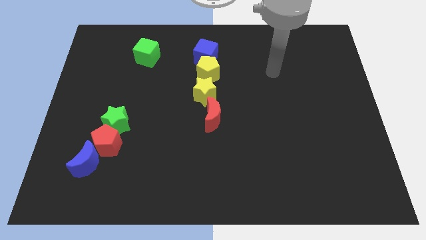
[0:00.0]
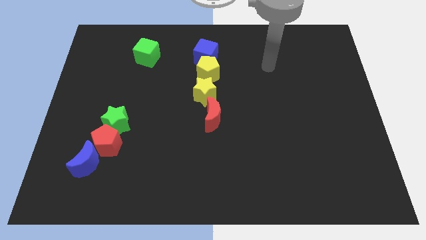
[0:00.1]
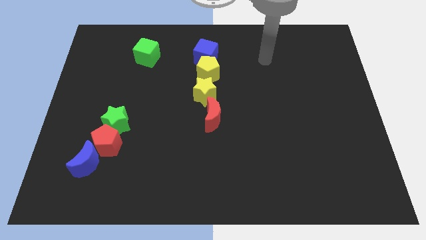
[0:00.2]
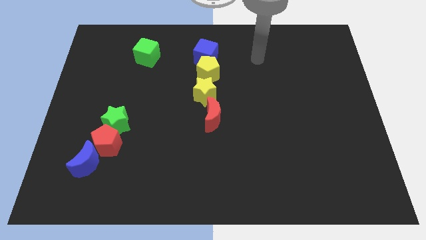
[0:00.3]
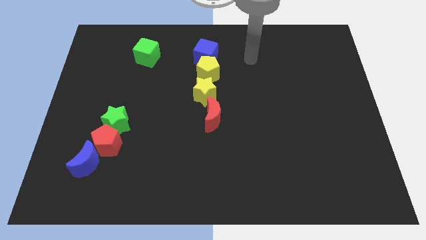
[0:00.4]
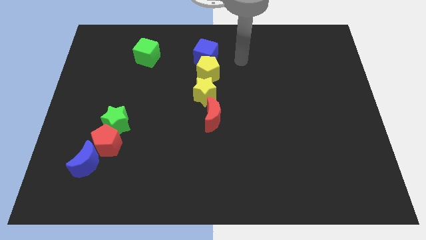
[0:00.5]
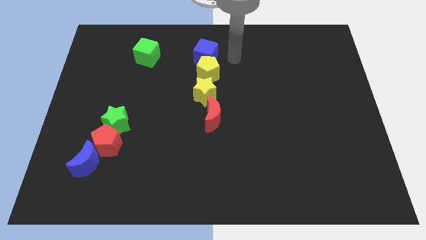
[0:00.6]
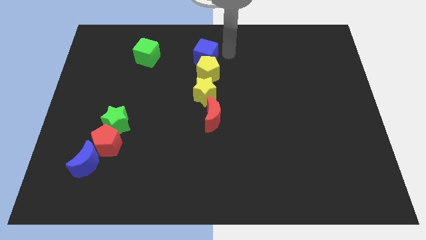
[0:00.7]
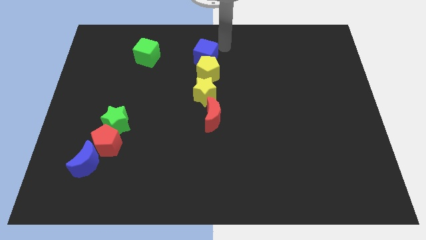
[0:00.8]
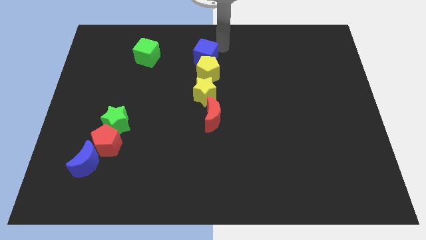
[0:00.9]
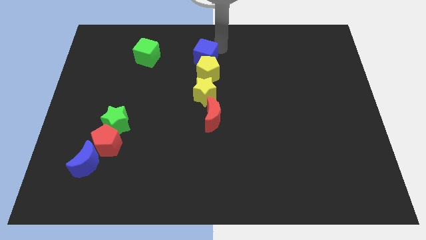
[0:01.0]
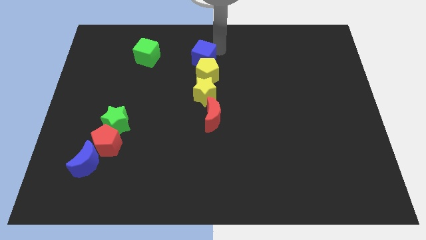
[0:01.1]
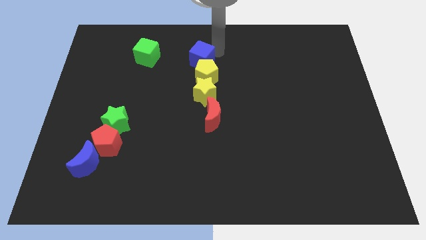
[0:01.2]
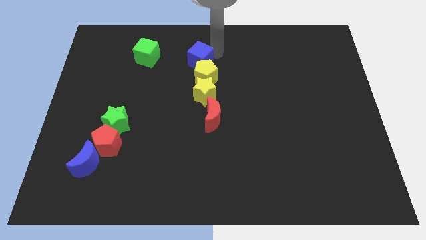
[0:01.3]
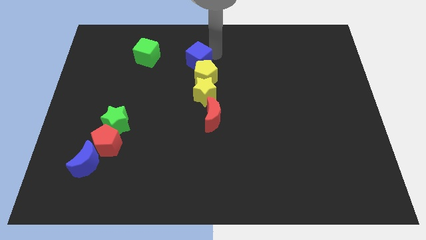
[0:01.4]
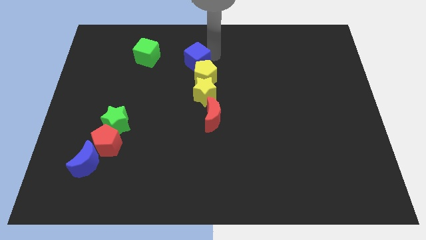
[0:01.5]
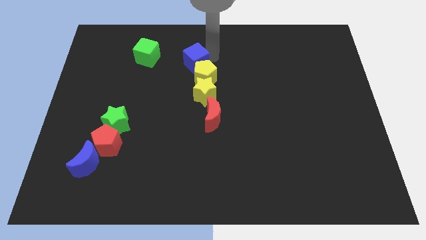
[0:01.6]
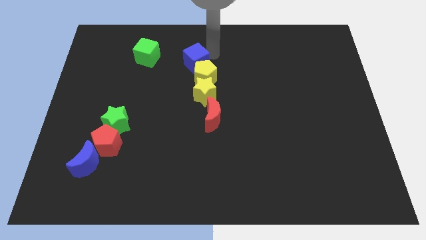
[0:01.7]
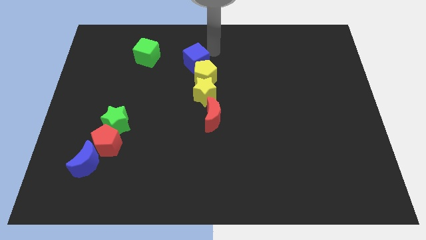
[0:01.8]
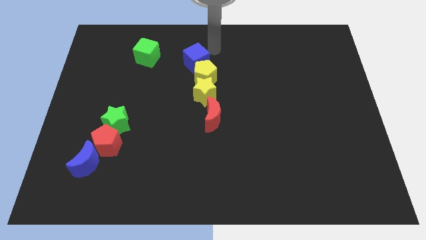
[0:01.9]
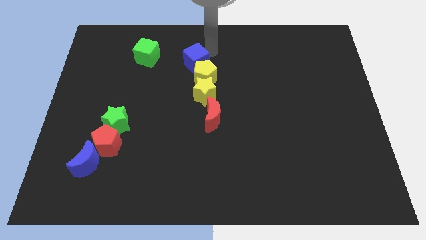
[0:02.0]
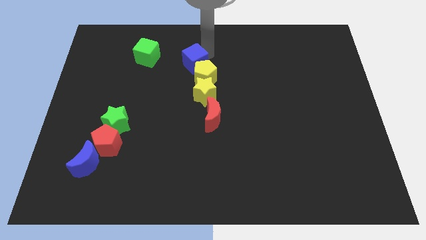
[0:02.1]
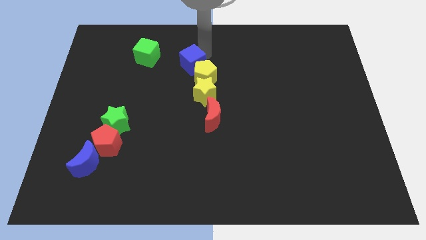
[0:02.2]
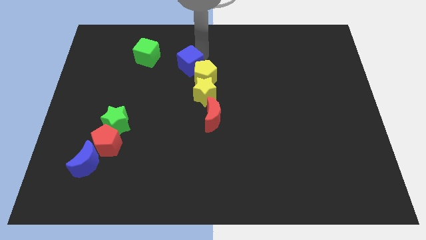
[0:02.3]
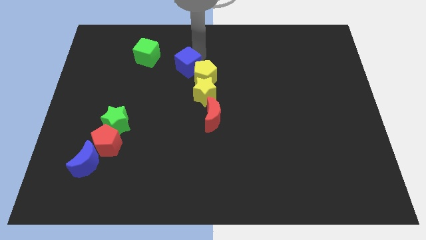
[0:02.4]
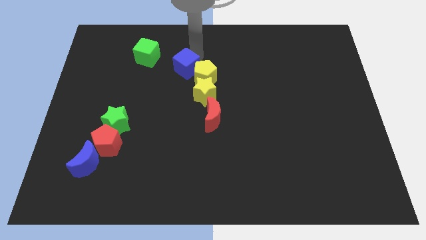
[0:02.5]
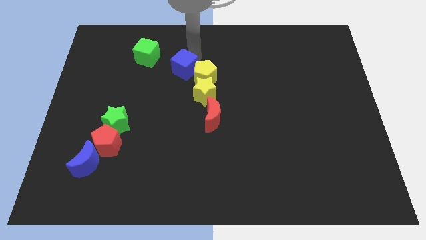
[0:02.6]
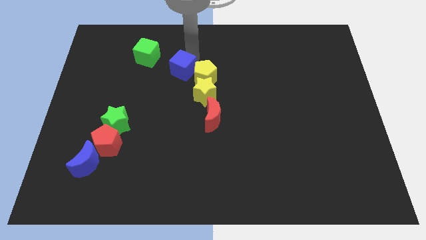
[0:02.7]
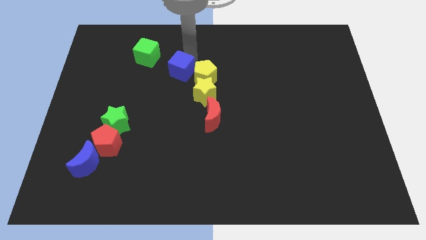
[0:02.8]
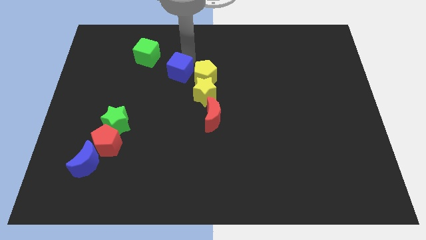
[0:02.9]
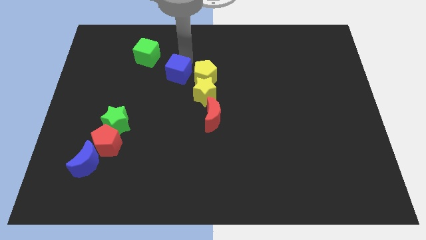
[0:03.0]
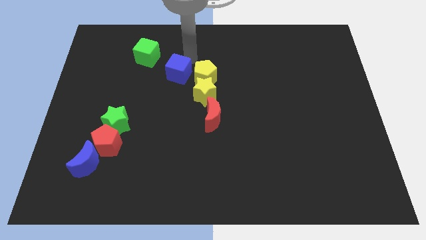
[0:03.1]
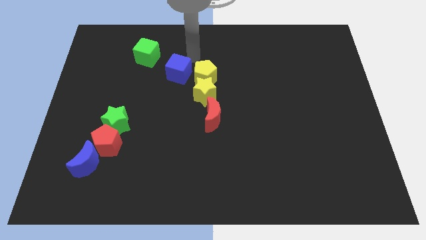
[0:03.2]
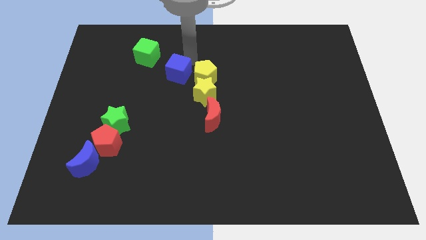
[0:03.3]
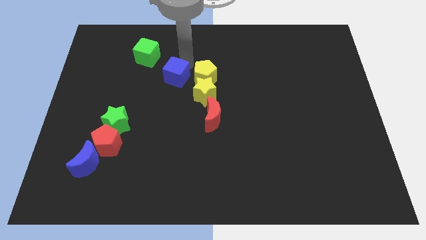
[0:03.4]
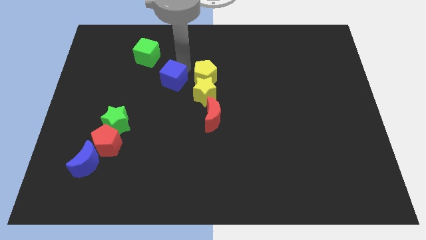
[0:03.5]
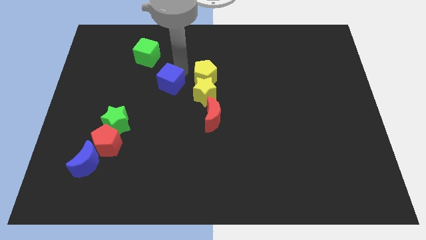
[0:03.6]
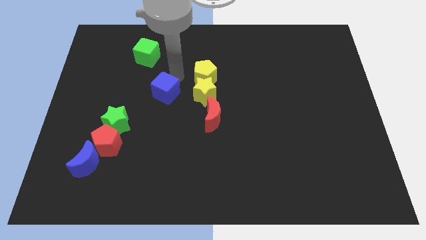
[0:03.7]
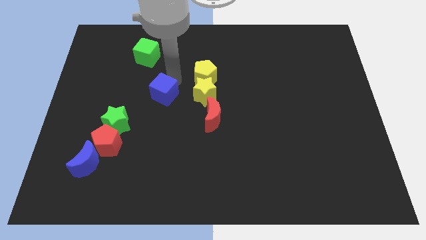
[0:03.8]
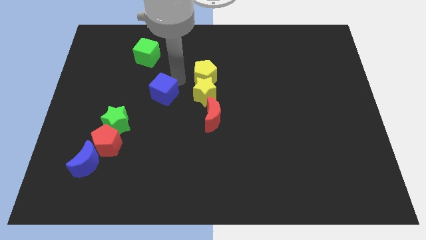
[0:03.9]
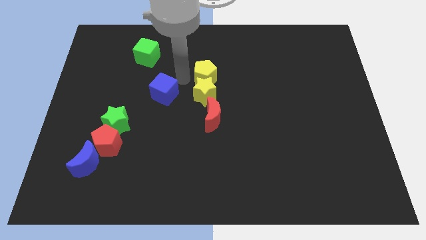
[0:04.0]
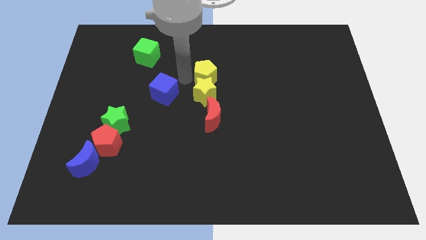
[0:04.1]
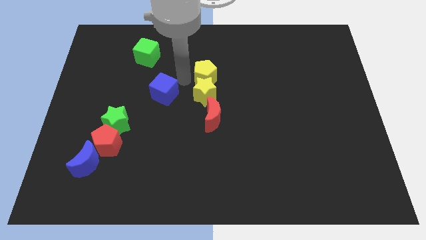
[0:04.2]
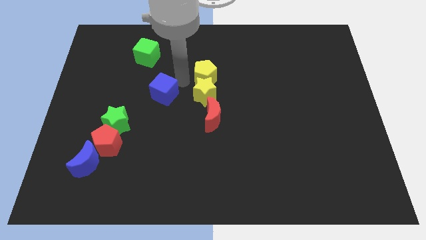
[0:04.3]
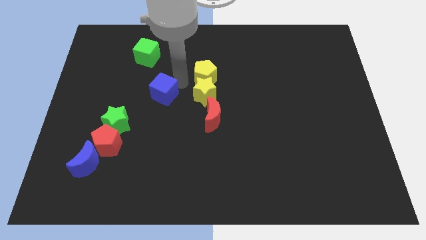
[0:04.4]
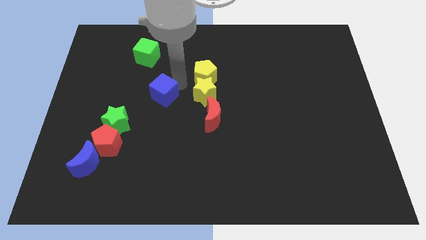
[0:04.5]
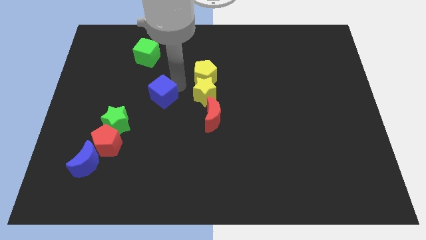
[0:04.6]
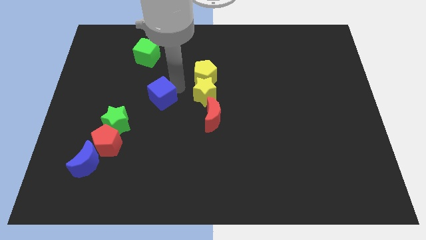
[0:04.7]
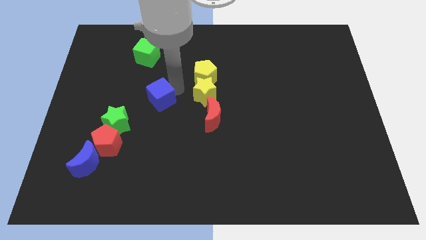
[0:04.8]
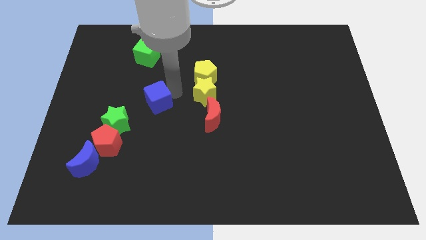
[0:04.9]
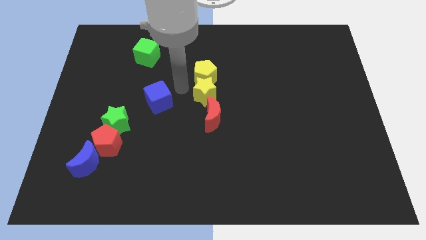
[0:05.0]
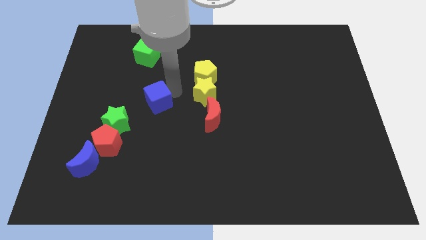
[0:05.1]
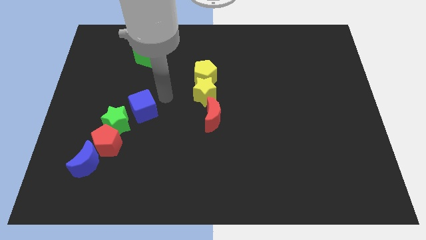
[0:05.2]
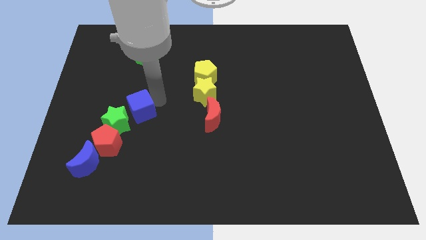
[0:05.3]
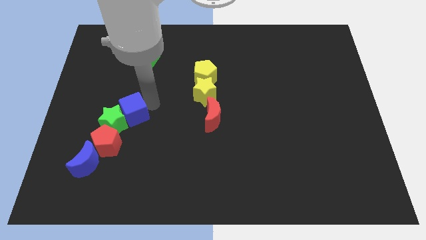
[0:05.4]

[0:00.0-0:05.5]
move the blue cube to the green star

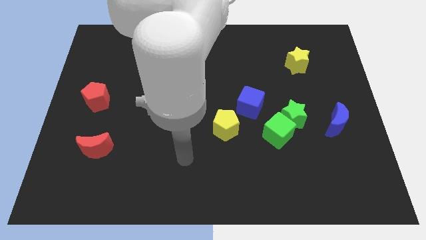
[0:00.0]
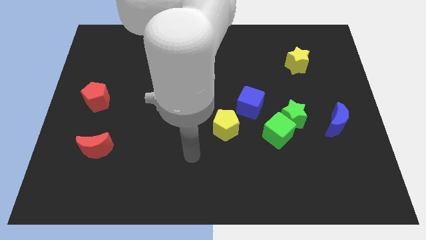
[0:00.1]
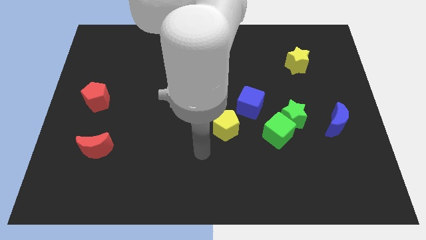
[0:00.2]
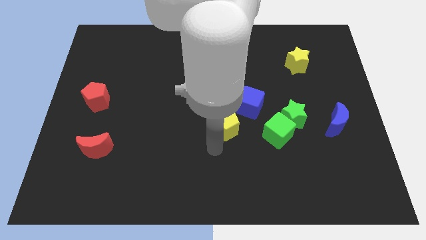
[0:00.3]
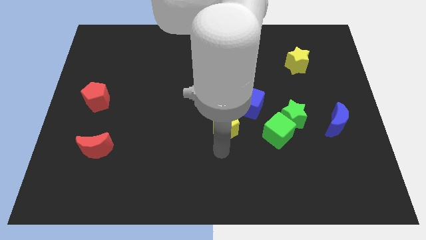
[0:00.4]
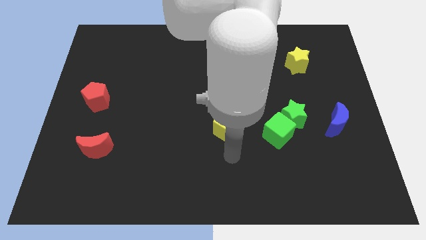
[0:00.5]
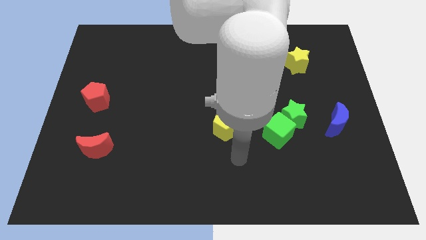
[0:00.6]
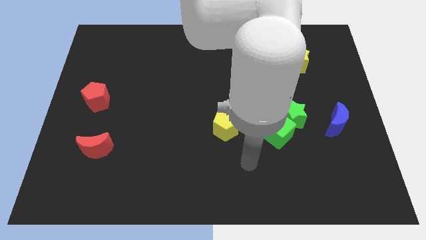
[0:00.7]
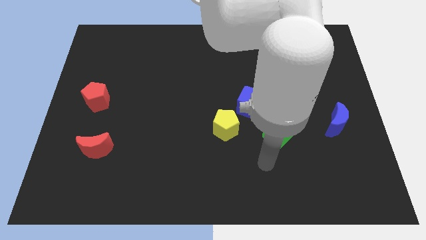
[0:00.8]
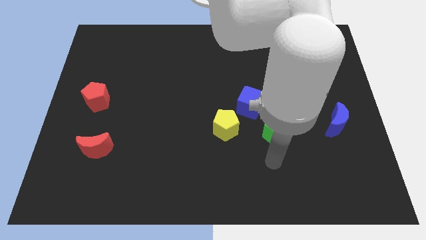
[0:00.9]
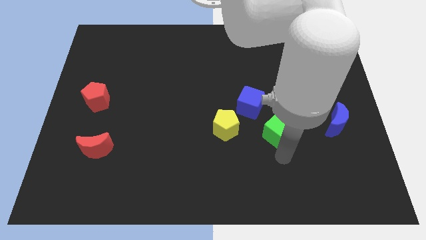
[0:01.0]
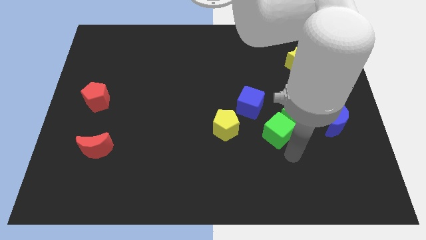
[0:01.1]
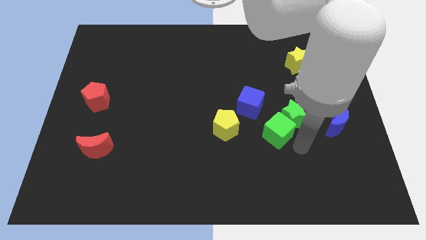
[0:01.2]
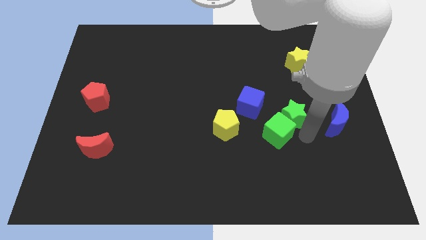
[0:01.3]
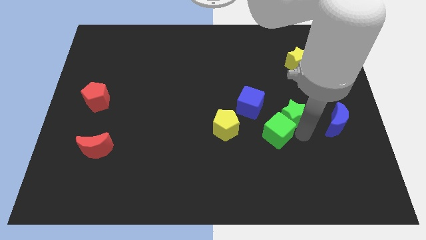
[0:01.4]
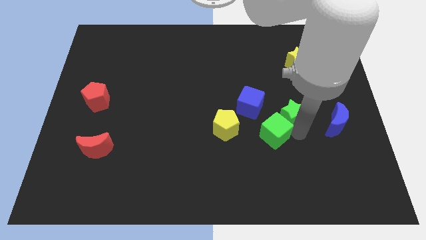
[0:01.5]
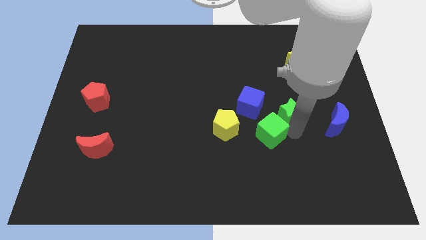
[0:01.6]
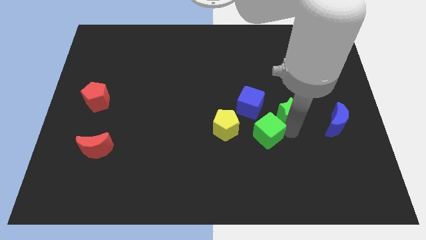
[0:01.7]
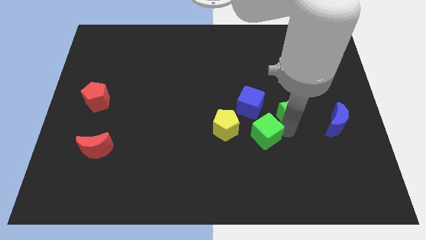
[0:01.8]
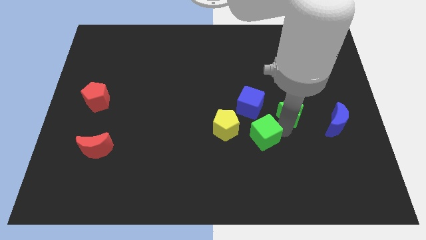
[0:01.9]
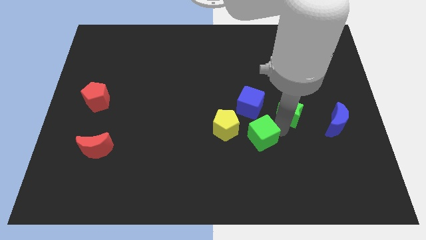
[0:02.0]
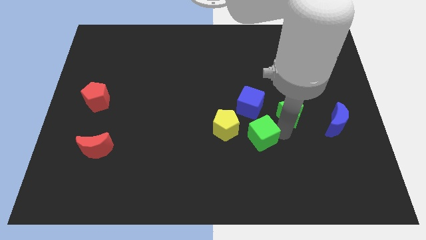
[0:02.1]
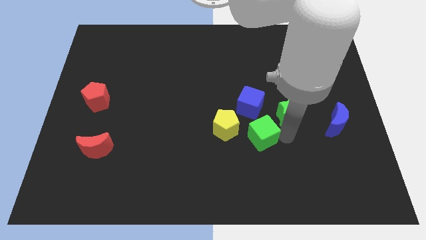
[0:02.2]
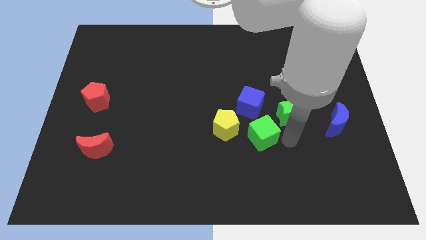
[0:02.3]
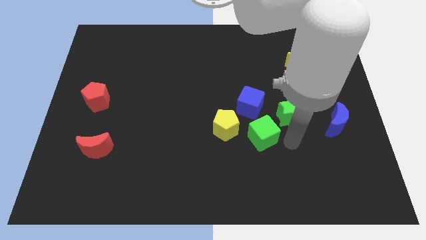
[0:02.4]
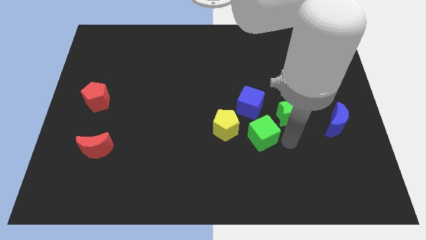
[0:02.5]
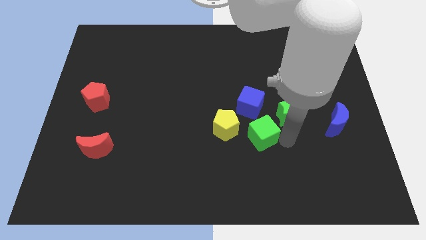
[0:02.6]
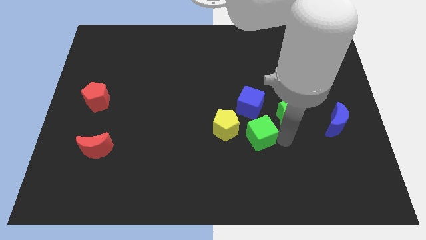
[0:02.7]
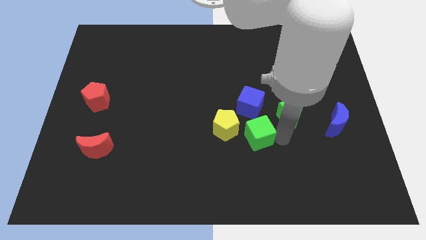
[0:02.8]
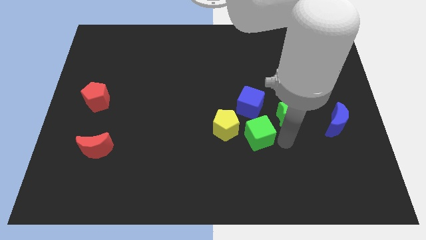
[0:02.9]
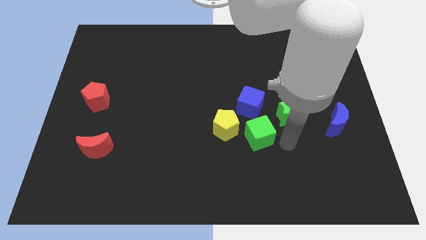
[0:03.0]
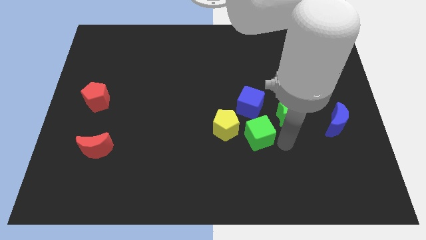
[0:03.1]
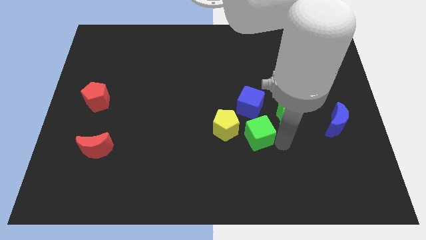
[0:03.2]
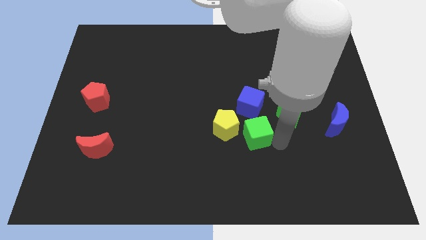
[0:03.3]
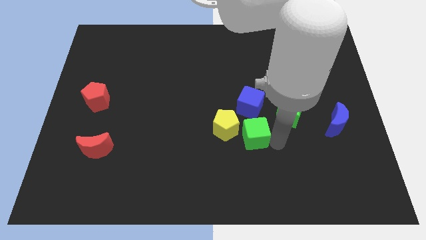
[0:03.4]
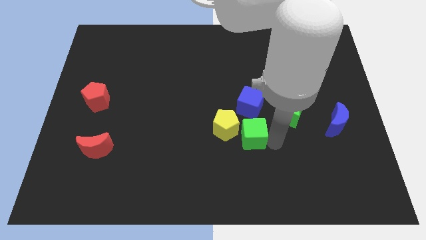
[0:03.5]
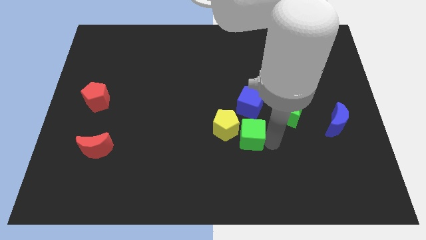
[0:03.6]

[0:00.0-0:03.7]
move the green cube to the yellow pentagon
